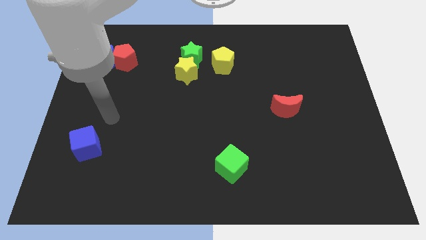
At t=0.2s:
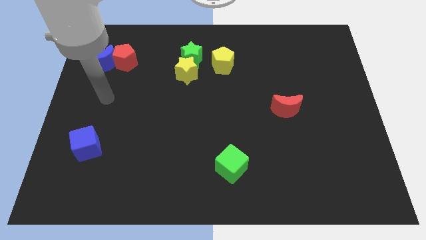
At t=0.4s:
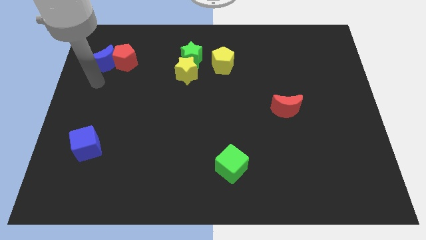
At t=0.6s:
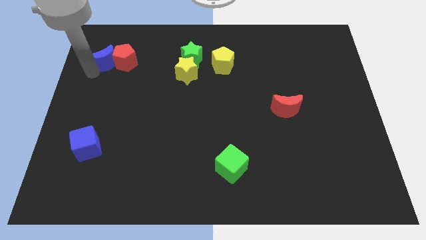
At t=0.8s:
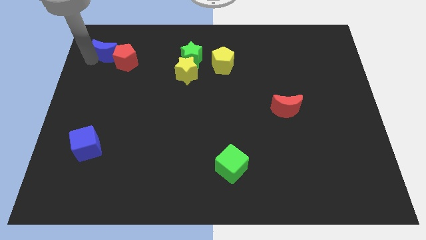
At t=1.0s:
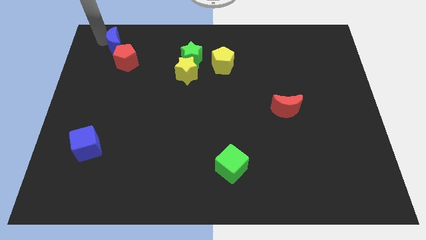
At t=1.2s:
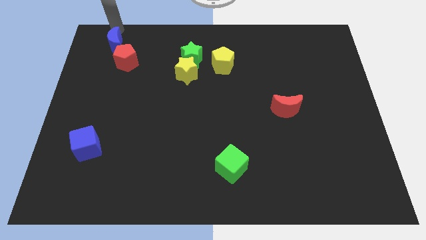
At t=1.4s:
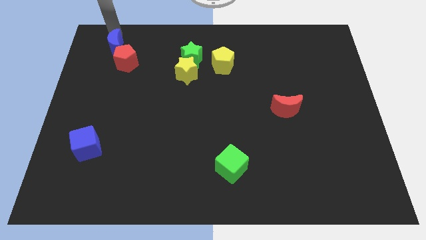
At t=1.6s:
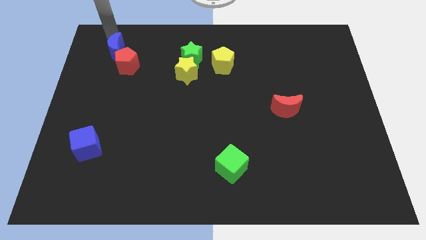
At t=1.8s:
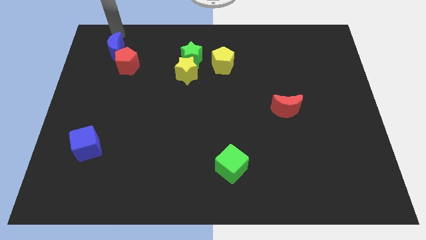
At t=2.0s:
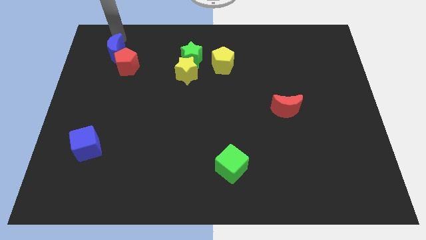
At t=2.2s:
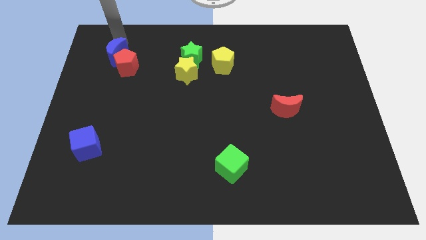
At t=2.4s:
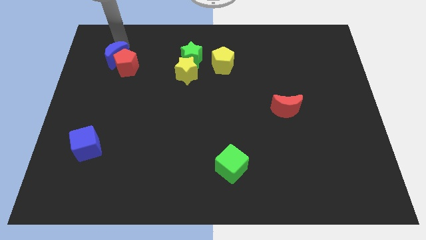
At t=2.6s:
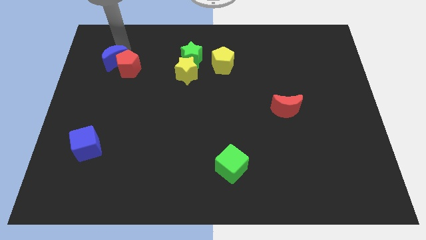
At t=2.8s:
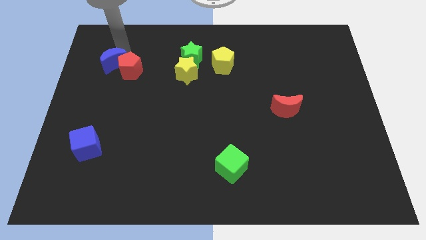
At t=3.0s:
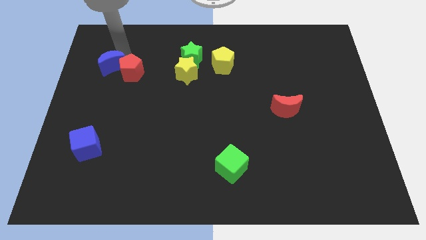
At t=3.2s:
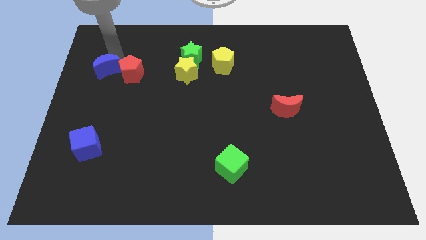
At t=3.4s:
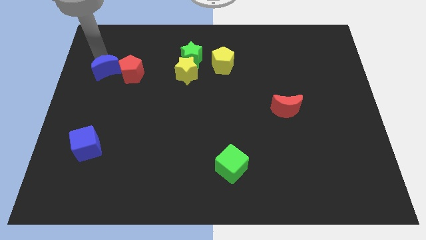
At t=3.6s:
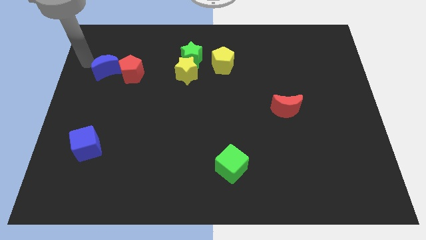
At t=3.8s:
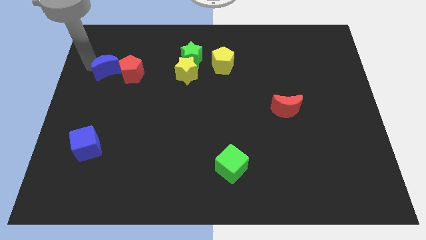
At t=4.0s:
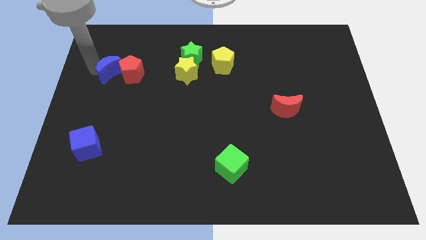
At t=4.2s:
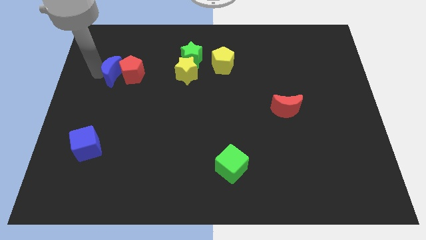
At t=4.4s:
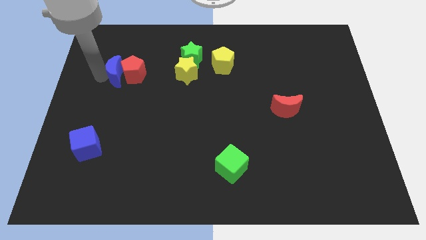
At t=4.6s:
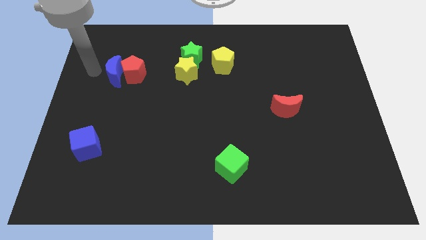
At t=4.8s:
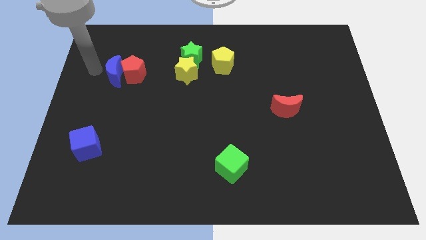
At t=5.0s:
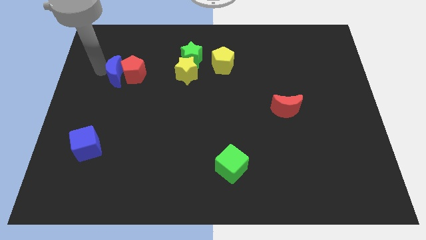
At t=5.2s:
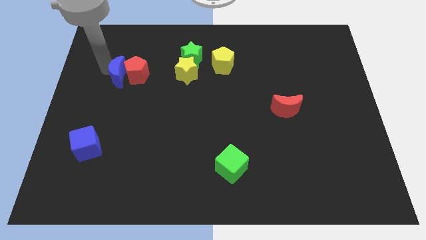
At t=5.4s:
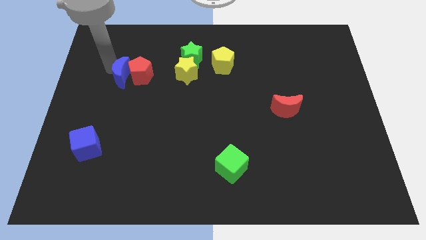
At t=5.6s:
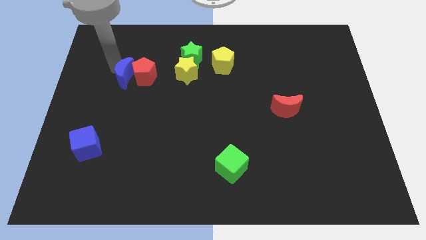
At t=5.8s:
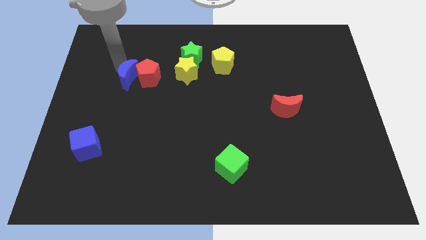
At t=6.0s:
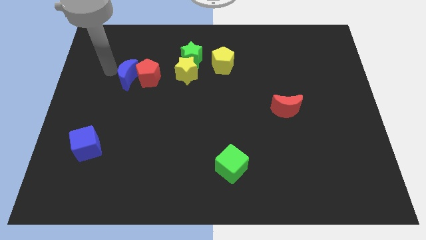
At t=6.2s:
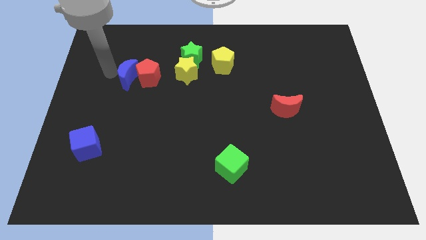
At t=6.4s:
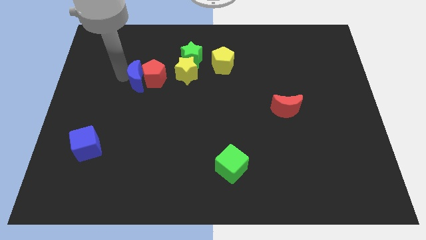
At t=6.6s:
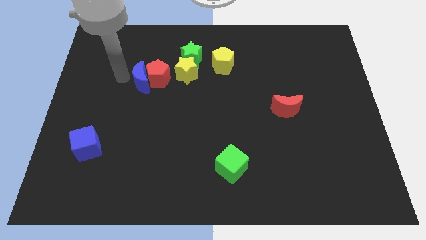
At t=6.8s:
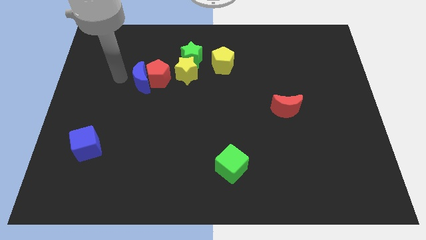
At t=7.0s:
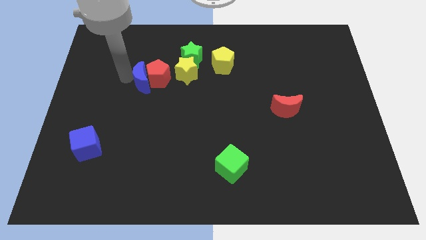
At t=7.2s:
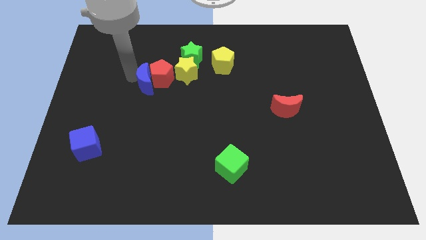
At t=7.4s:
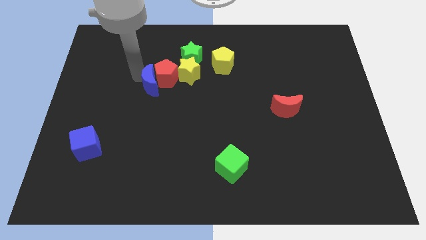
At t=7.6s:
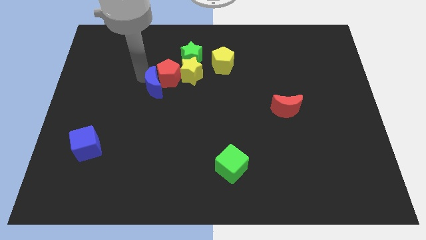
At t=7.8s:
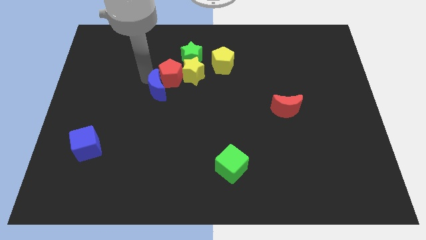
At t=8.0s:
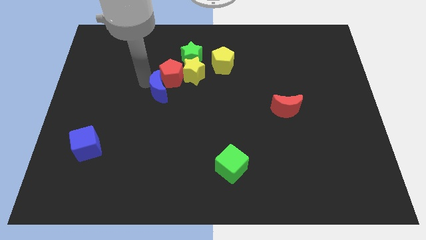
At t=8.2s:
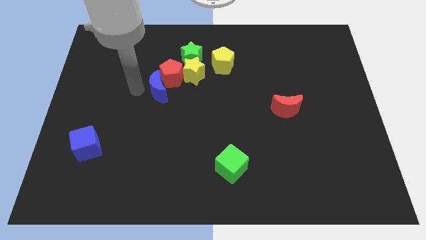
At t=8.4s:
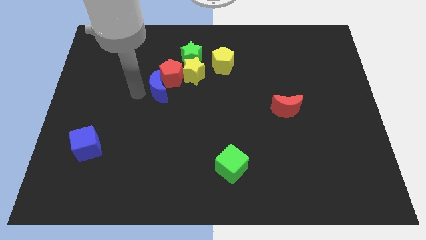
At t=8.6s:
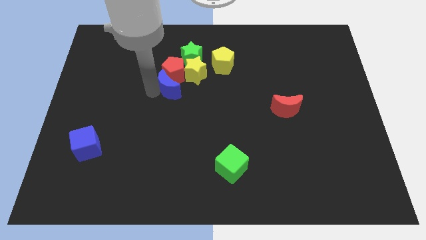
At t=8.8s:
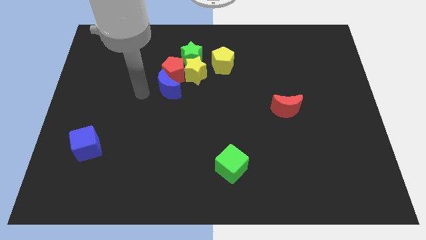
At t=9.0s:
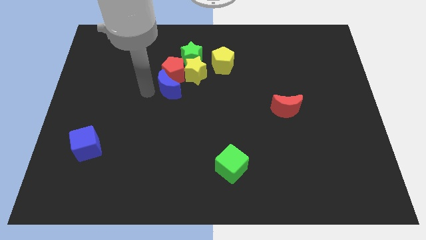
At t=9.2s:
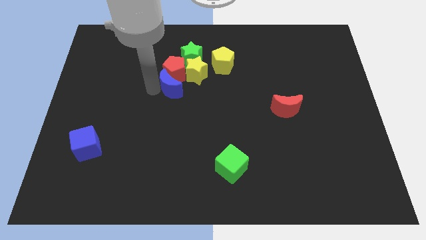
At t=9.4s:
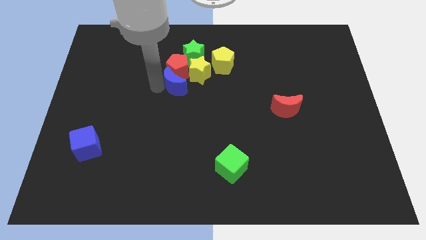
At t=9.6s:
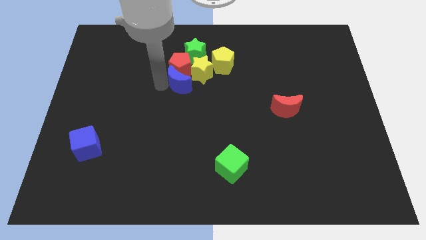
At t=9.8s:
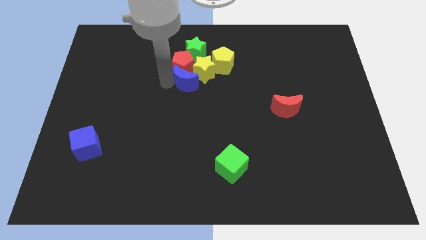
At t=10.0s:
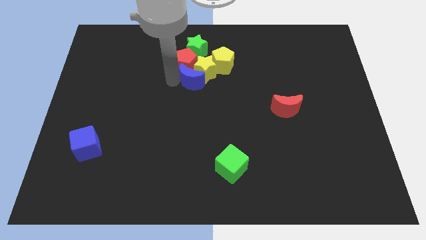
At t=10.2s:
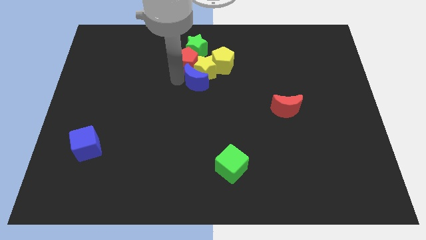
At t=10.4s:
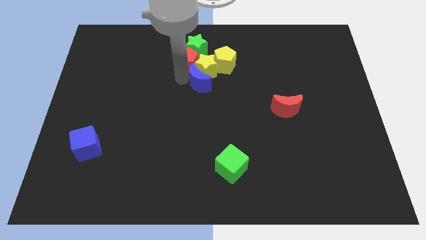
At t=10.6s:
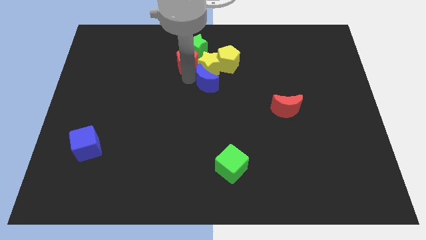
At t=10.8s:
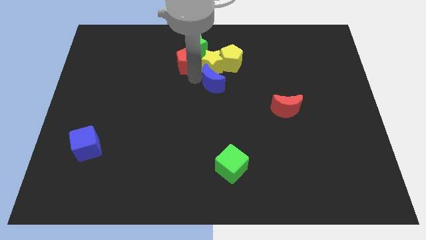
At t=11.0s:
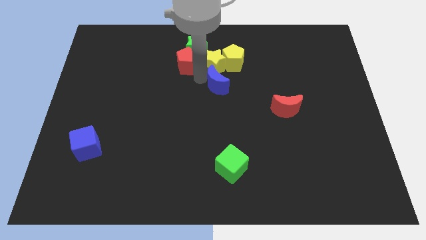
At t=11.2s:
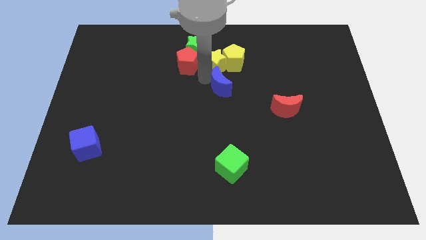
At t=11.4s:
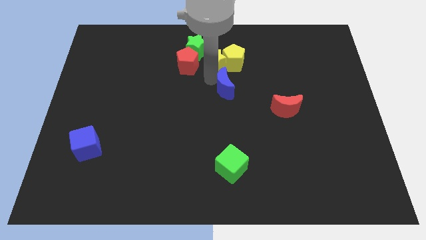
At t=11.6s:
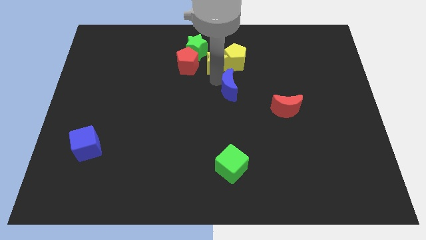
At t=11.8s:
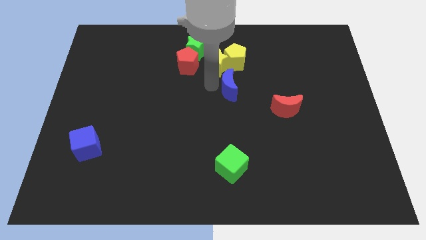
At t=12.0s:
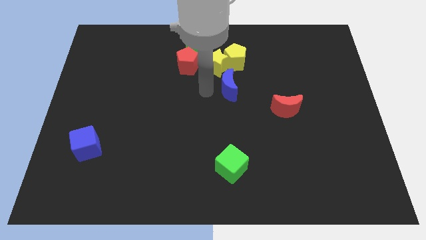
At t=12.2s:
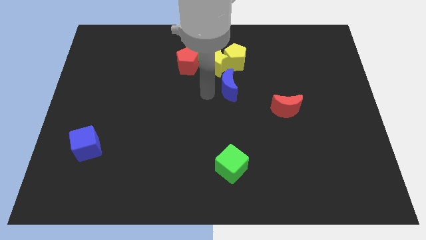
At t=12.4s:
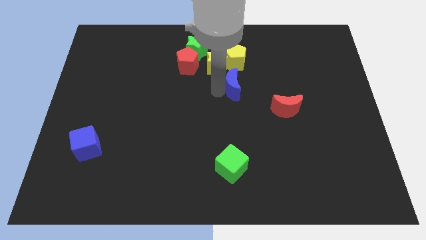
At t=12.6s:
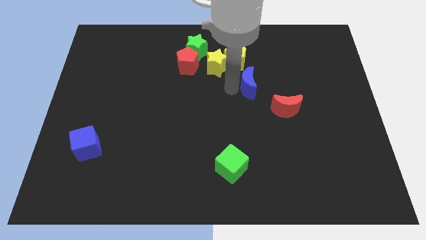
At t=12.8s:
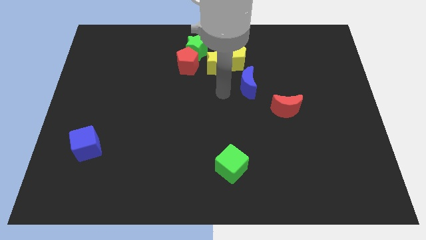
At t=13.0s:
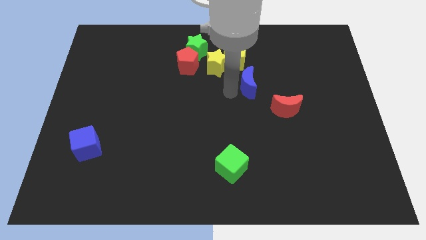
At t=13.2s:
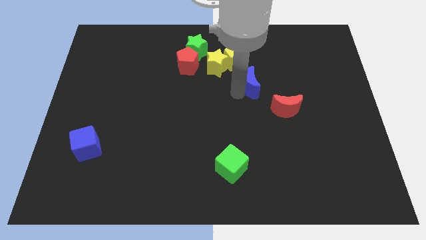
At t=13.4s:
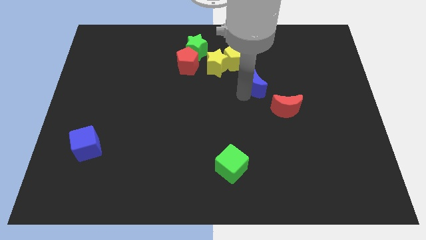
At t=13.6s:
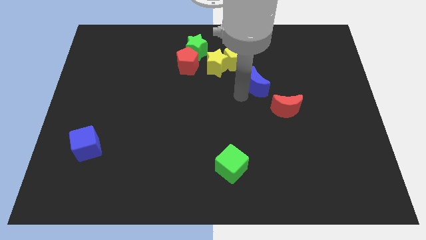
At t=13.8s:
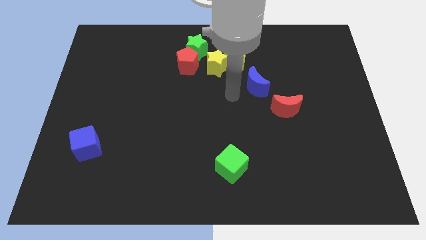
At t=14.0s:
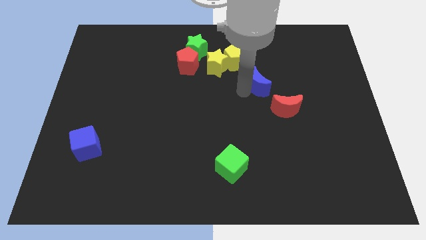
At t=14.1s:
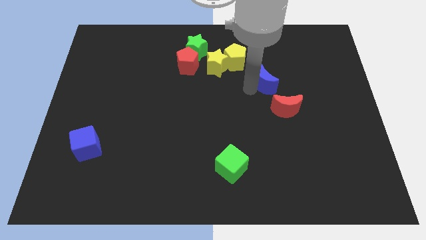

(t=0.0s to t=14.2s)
push the blue moon above the red moon
